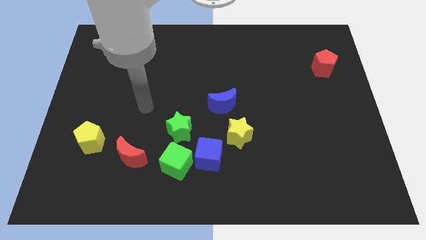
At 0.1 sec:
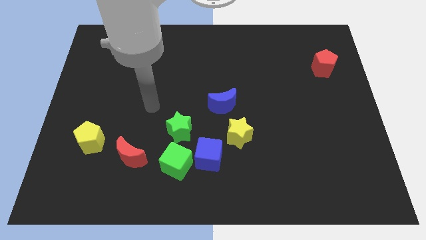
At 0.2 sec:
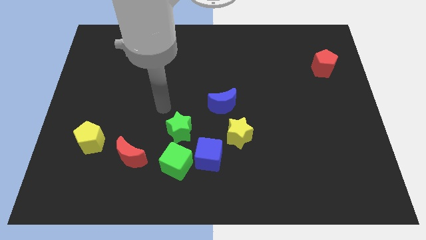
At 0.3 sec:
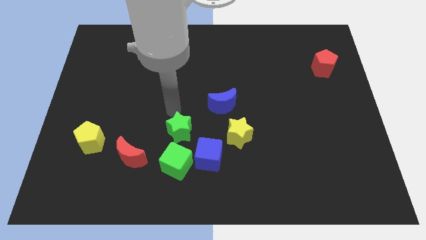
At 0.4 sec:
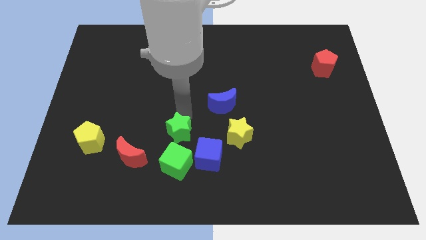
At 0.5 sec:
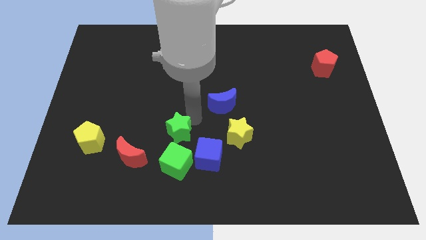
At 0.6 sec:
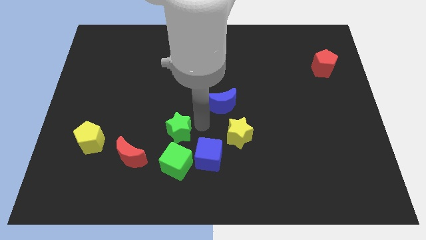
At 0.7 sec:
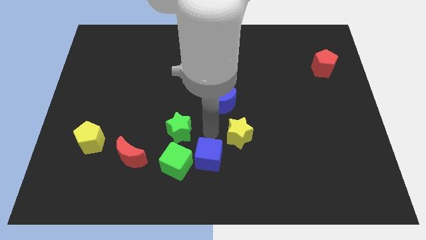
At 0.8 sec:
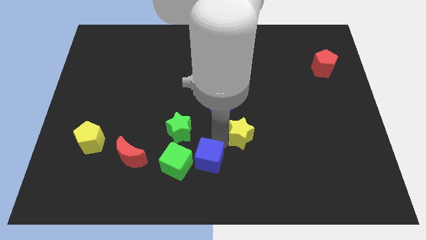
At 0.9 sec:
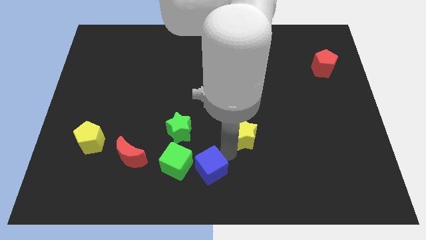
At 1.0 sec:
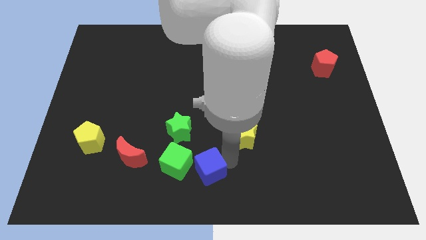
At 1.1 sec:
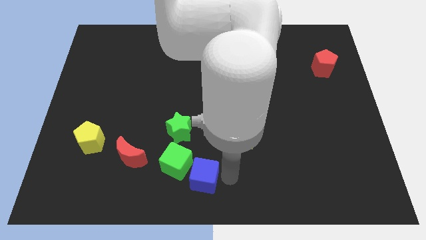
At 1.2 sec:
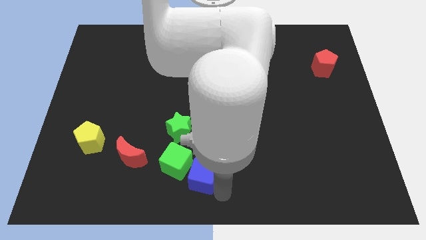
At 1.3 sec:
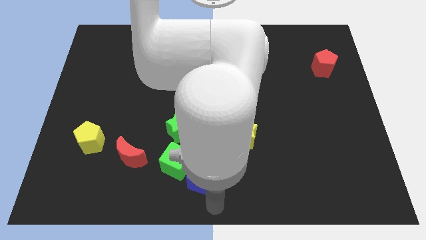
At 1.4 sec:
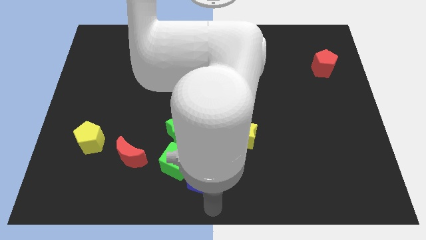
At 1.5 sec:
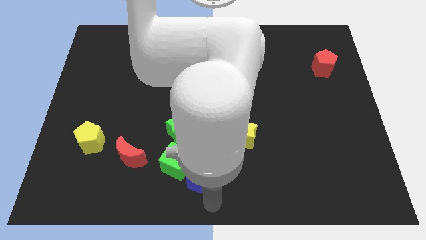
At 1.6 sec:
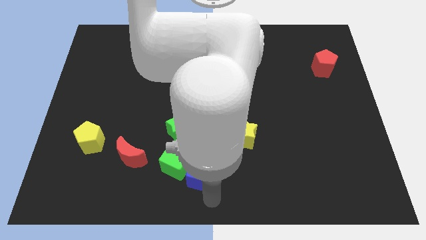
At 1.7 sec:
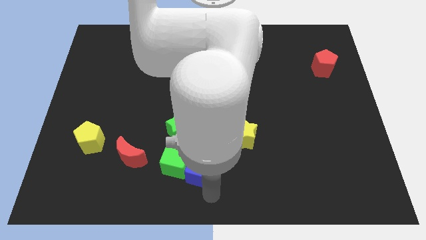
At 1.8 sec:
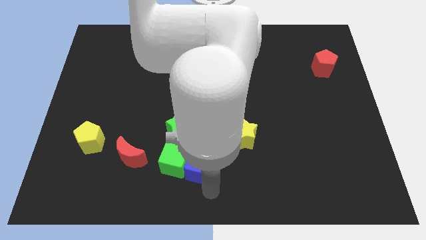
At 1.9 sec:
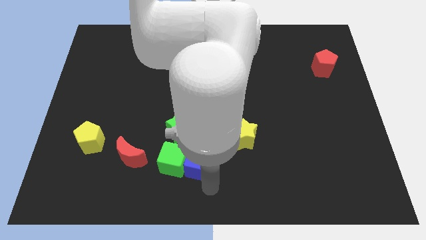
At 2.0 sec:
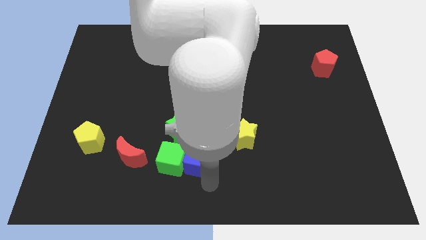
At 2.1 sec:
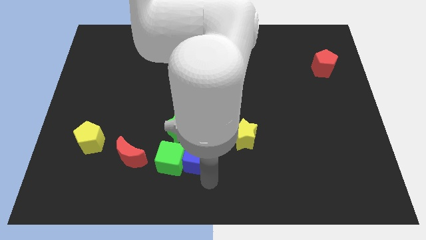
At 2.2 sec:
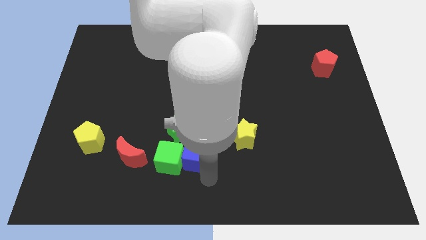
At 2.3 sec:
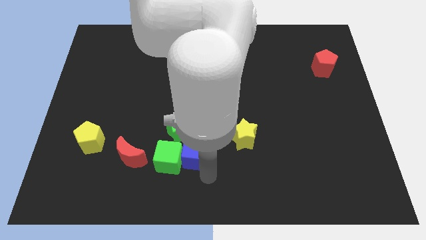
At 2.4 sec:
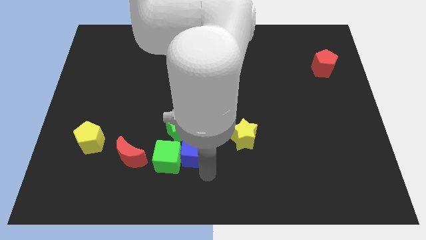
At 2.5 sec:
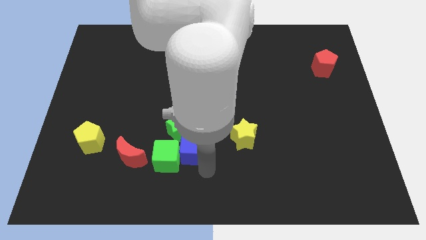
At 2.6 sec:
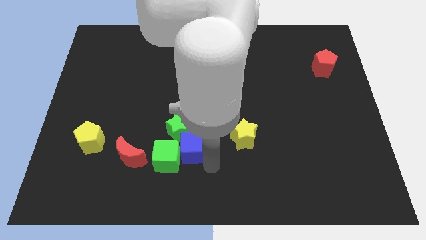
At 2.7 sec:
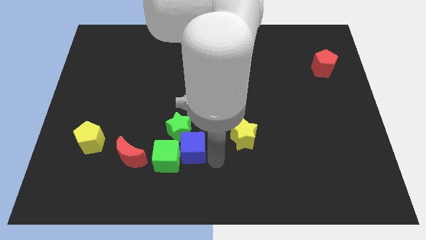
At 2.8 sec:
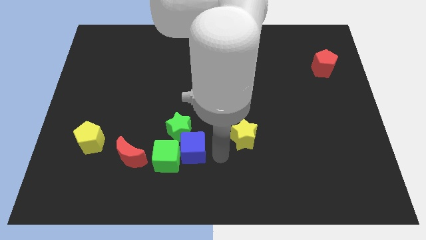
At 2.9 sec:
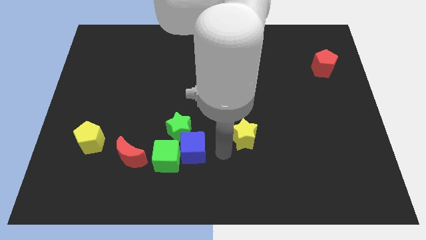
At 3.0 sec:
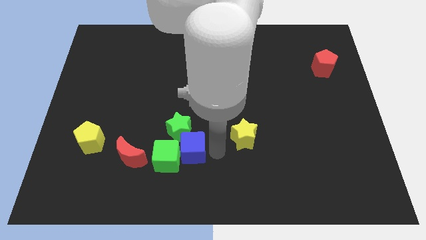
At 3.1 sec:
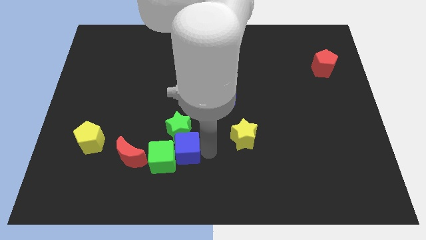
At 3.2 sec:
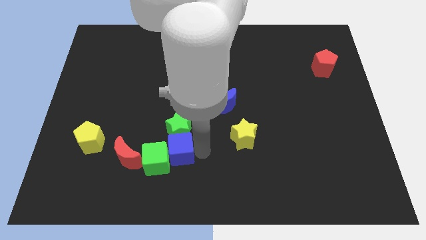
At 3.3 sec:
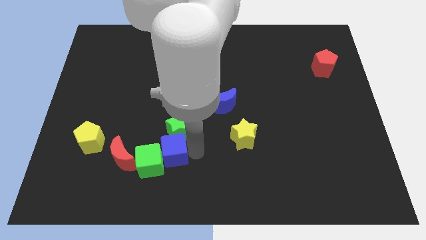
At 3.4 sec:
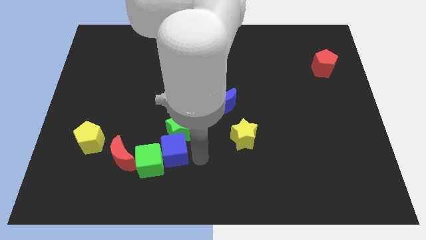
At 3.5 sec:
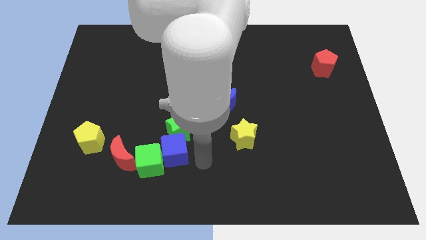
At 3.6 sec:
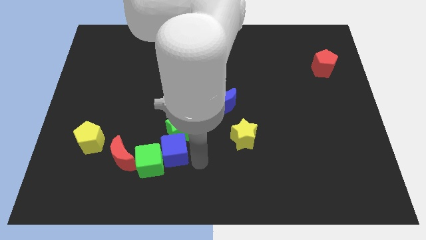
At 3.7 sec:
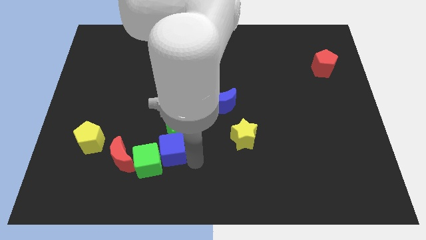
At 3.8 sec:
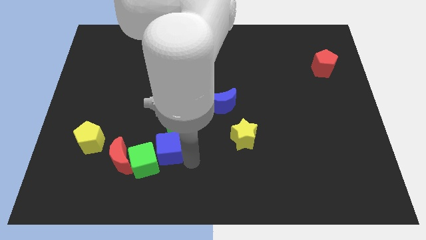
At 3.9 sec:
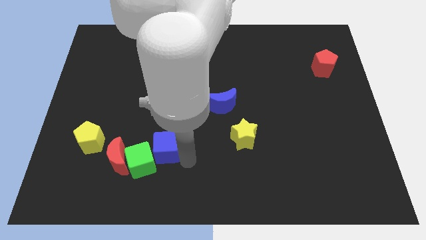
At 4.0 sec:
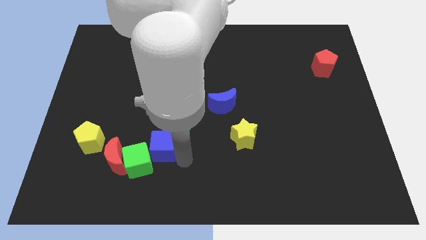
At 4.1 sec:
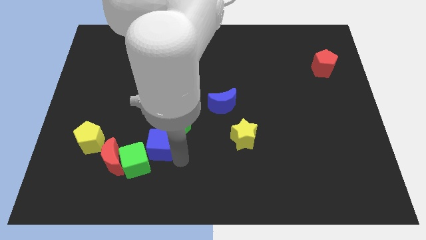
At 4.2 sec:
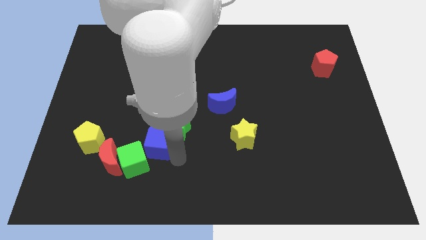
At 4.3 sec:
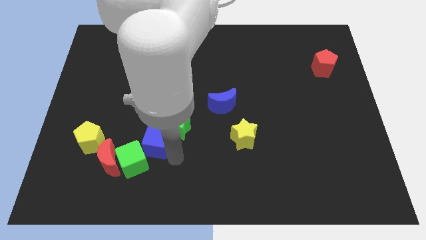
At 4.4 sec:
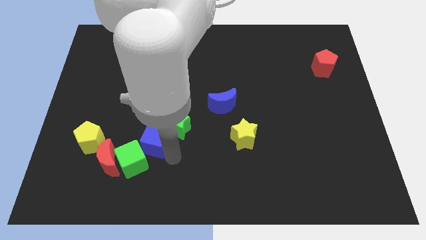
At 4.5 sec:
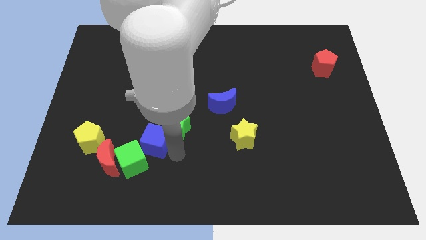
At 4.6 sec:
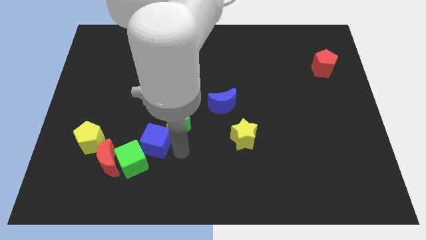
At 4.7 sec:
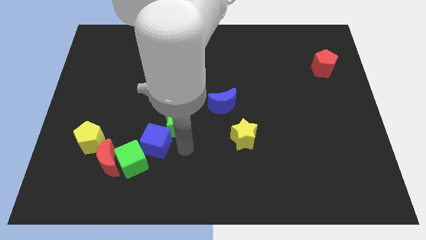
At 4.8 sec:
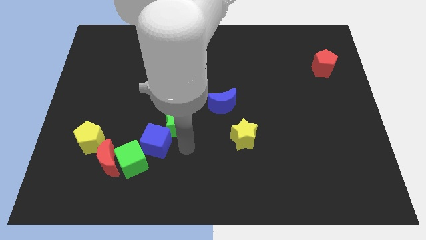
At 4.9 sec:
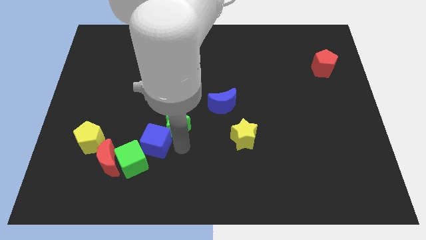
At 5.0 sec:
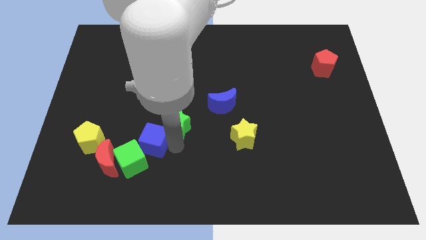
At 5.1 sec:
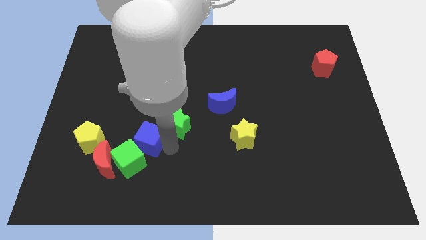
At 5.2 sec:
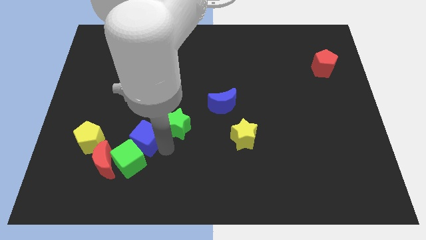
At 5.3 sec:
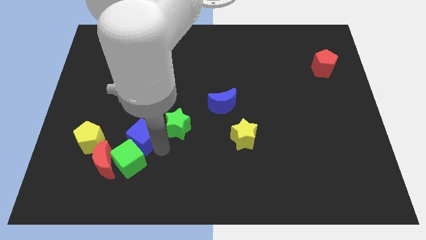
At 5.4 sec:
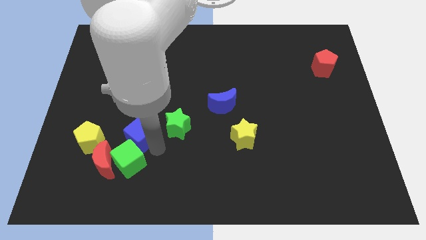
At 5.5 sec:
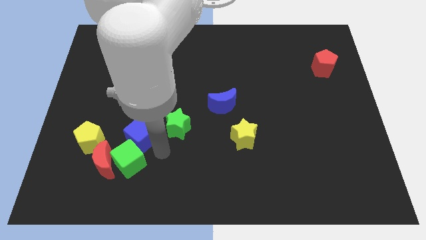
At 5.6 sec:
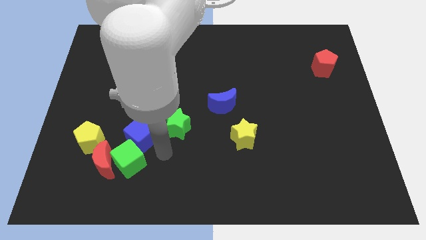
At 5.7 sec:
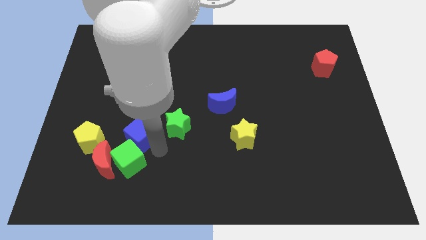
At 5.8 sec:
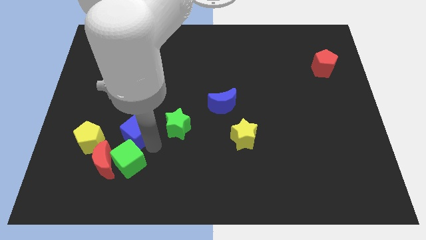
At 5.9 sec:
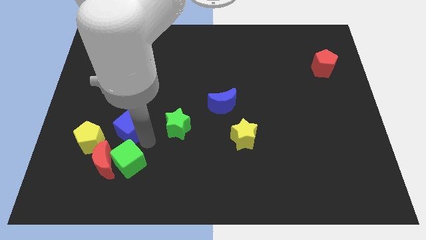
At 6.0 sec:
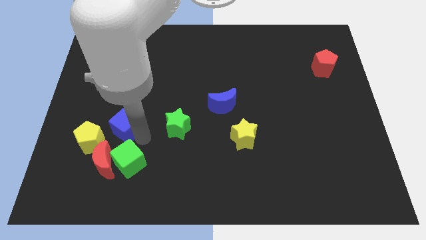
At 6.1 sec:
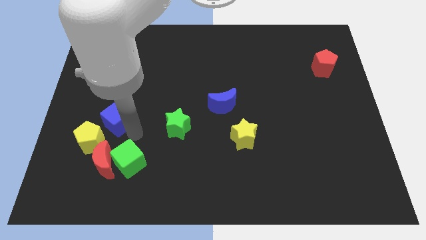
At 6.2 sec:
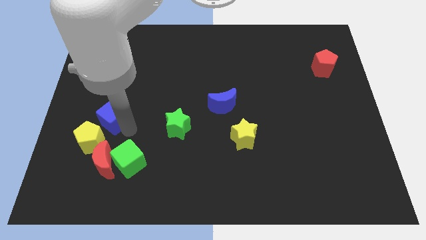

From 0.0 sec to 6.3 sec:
put the blue cube to the top of the yellow pentagon

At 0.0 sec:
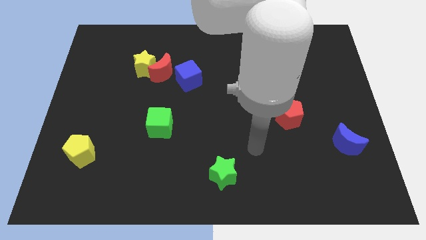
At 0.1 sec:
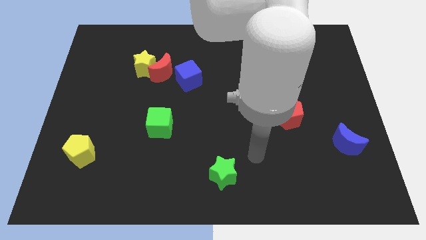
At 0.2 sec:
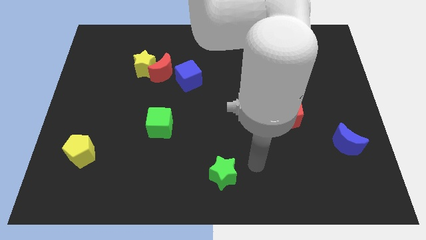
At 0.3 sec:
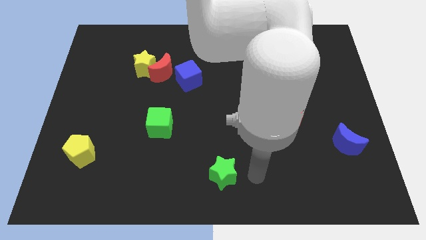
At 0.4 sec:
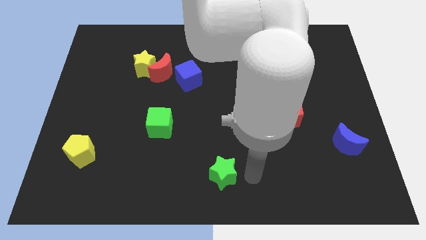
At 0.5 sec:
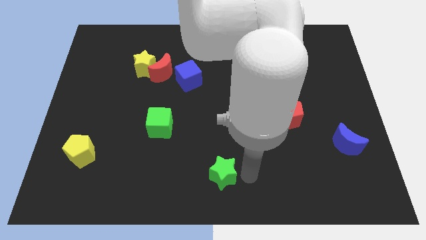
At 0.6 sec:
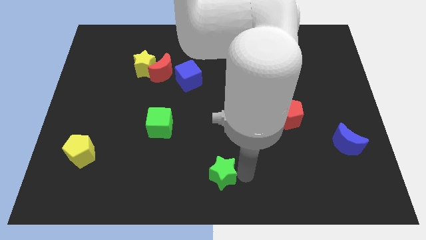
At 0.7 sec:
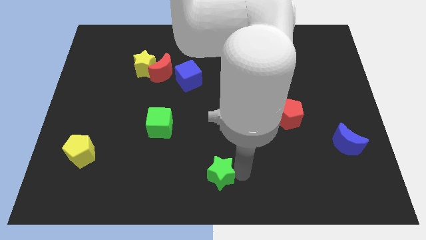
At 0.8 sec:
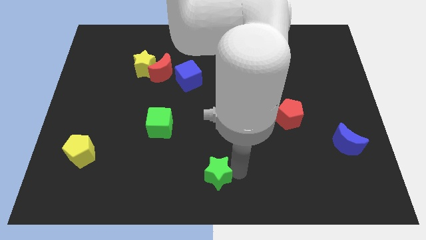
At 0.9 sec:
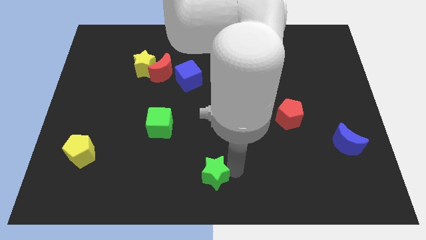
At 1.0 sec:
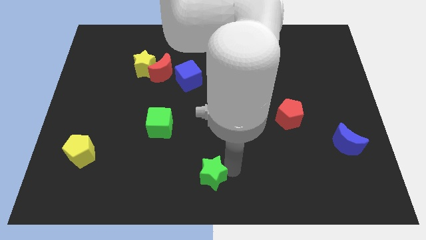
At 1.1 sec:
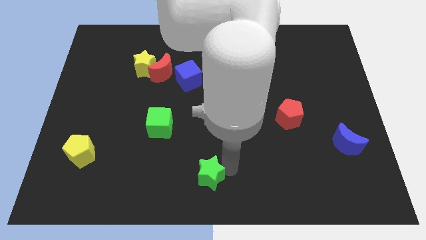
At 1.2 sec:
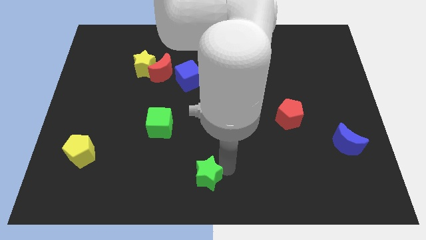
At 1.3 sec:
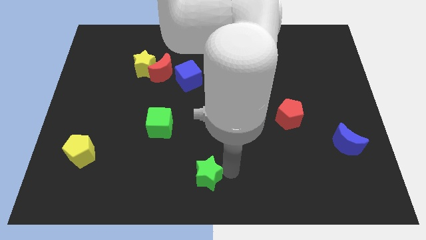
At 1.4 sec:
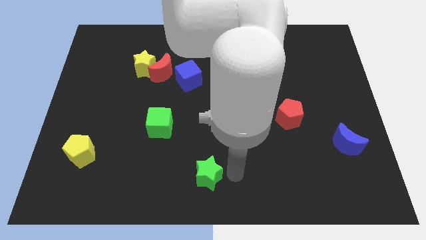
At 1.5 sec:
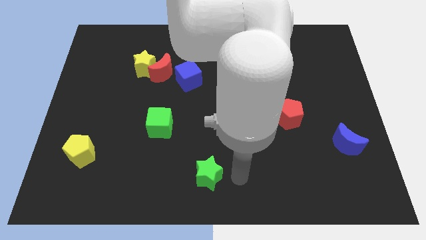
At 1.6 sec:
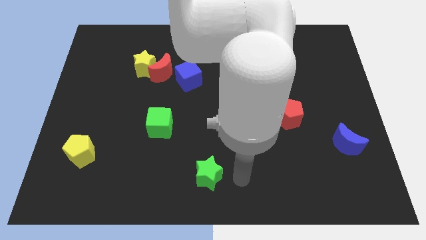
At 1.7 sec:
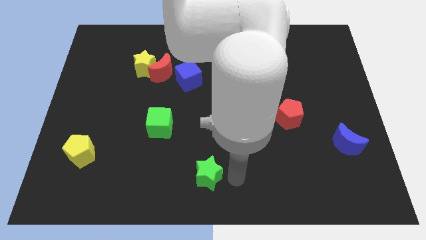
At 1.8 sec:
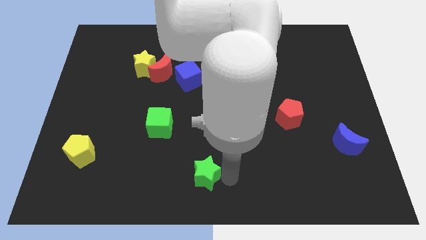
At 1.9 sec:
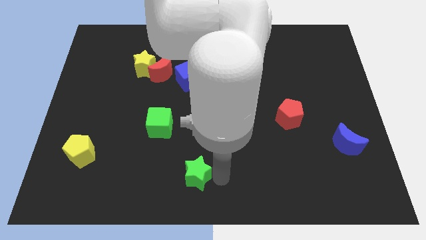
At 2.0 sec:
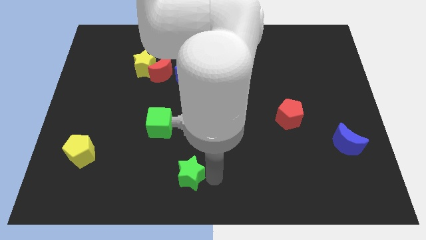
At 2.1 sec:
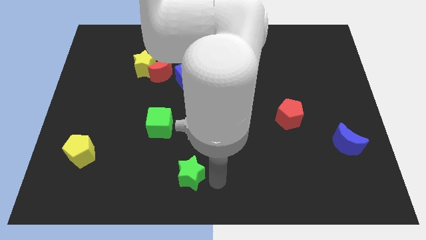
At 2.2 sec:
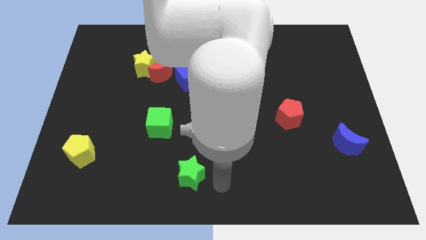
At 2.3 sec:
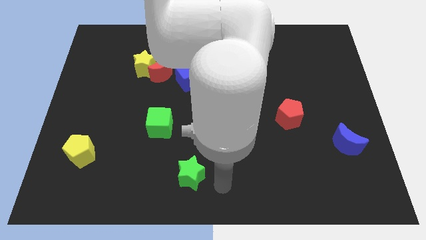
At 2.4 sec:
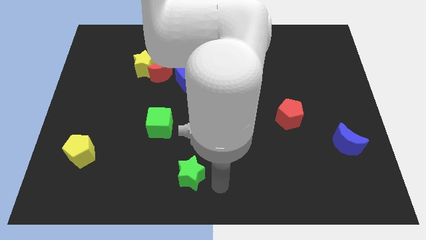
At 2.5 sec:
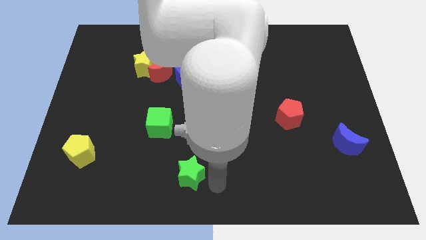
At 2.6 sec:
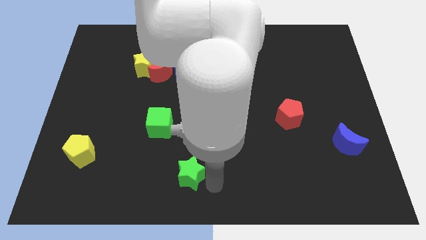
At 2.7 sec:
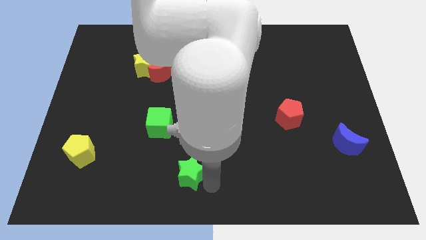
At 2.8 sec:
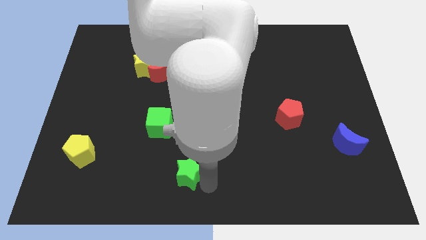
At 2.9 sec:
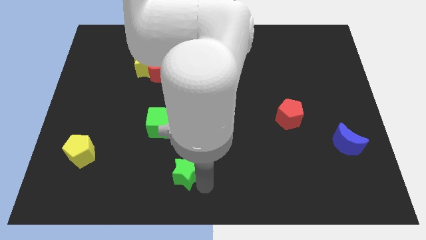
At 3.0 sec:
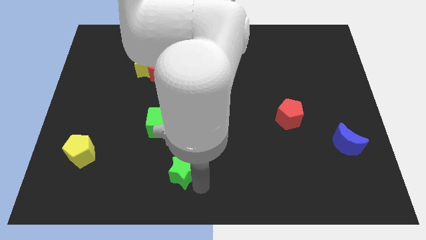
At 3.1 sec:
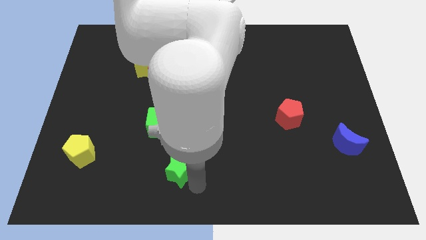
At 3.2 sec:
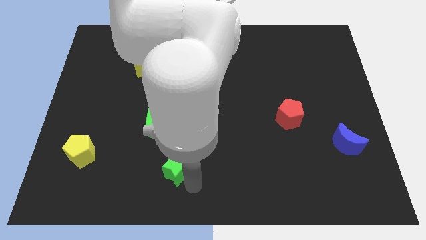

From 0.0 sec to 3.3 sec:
push the green star to the bottom side of the green cube
